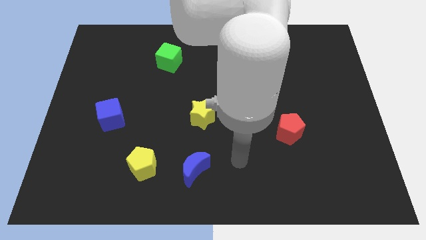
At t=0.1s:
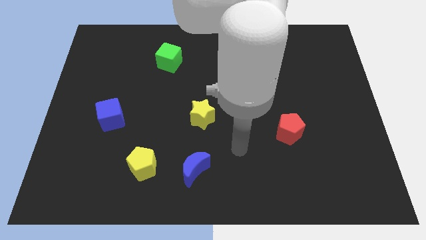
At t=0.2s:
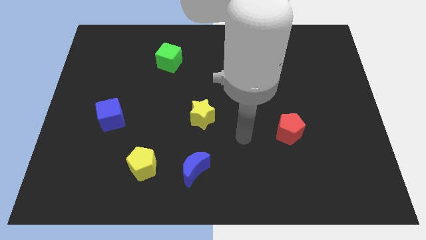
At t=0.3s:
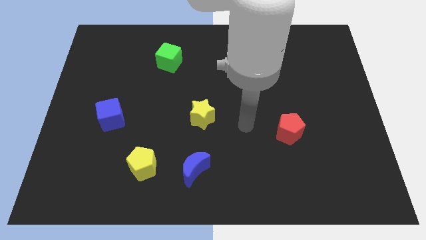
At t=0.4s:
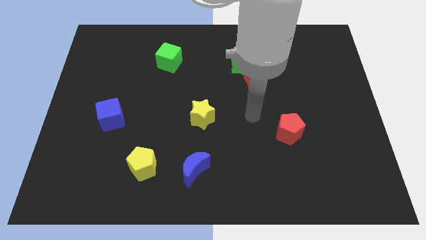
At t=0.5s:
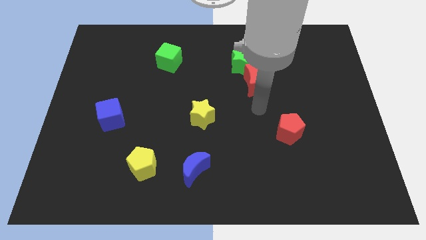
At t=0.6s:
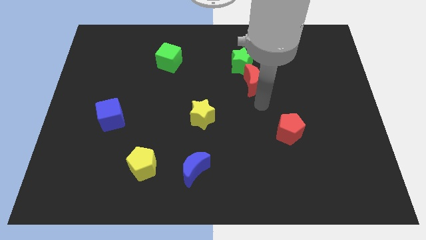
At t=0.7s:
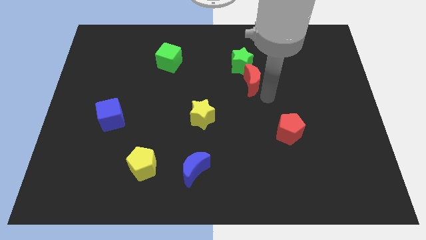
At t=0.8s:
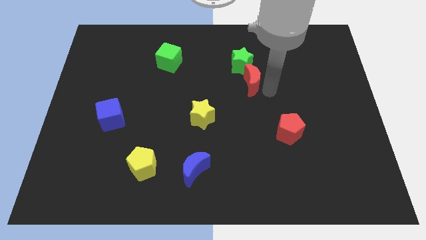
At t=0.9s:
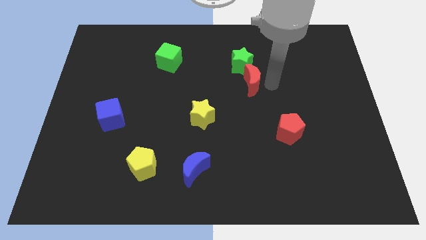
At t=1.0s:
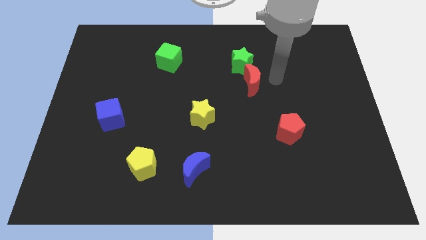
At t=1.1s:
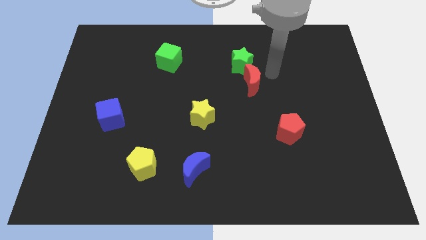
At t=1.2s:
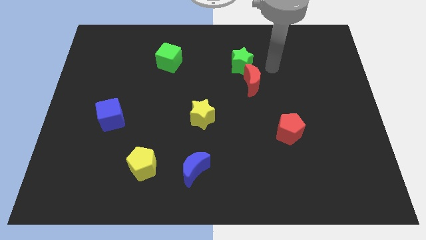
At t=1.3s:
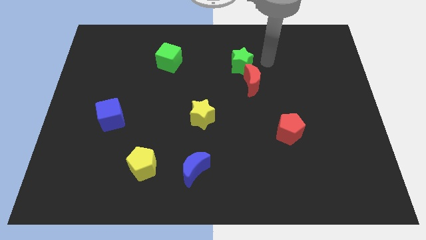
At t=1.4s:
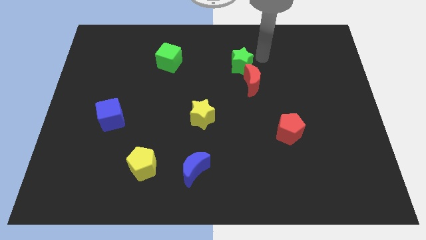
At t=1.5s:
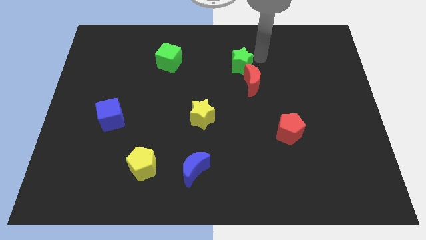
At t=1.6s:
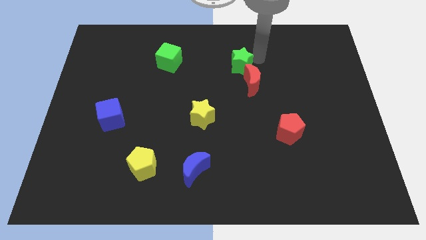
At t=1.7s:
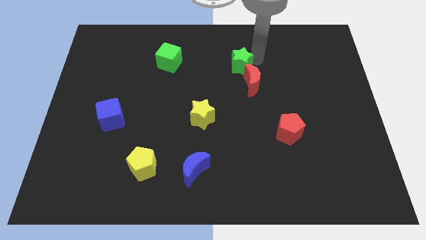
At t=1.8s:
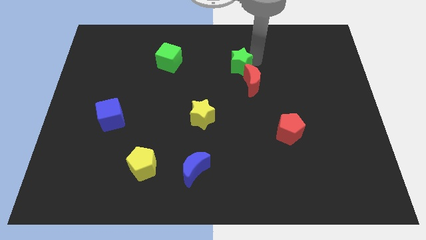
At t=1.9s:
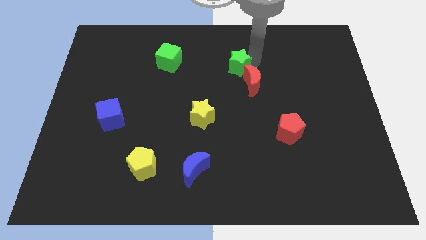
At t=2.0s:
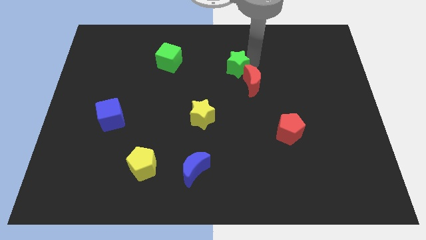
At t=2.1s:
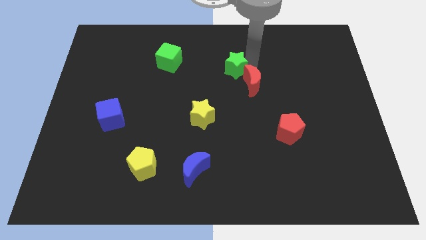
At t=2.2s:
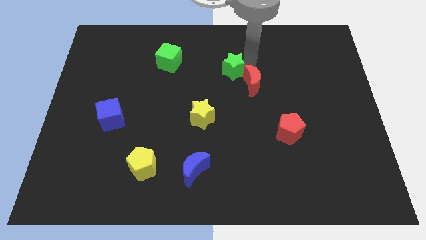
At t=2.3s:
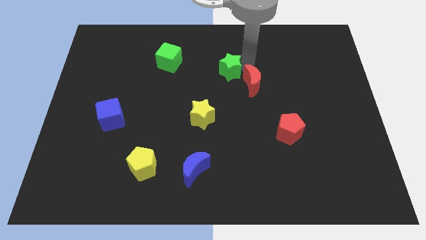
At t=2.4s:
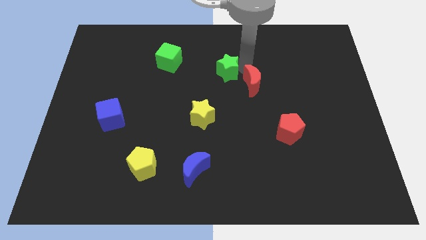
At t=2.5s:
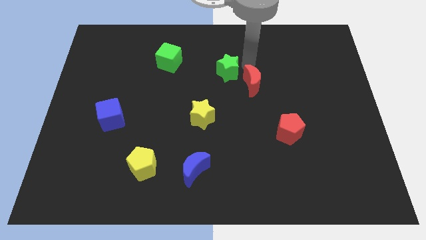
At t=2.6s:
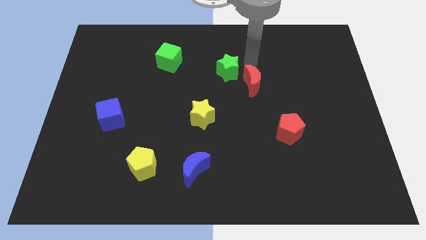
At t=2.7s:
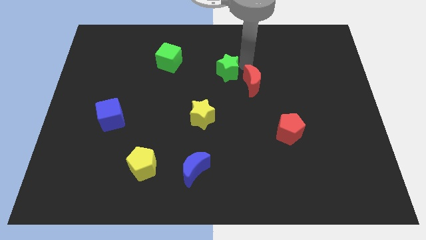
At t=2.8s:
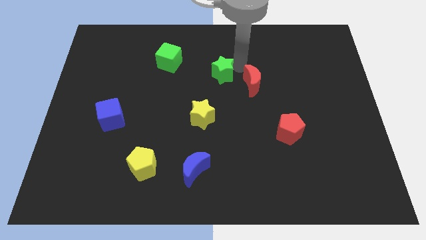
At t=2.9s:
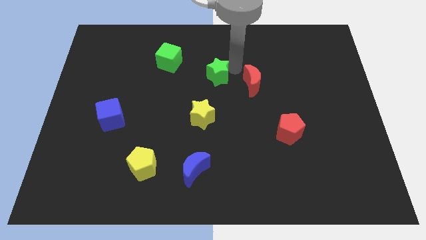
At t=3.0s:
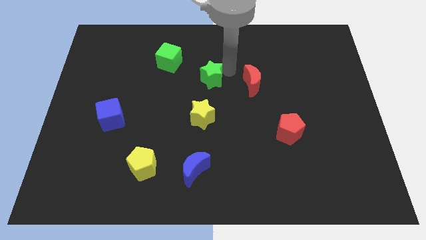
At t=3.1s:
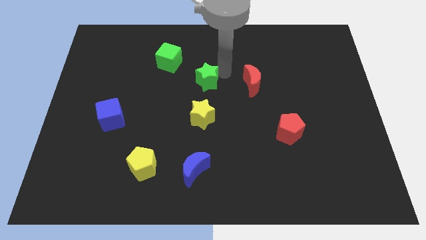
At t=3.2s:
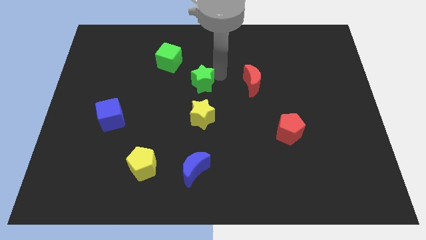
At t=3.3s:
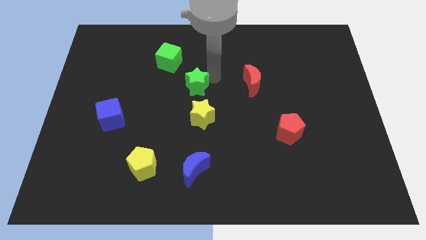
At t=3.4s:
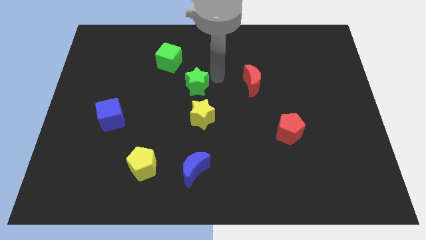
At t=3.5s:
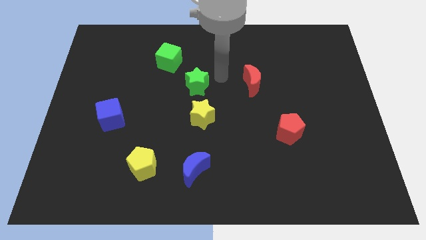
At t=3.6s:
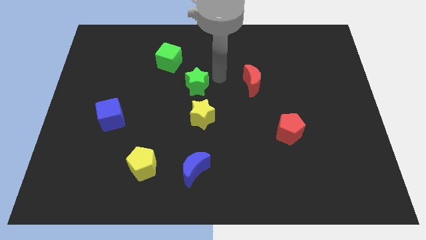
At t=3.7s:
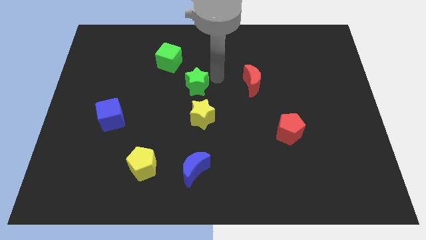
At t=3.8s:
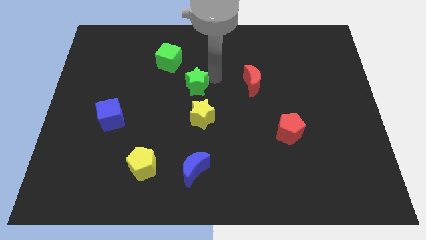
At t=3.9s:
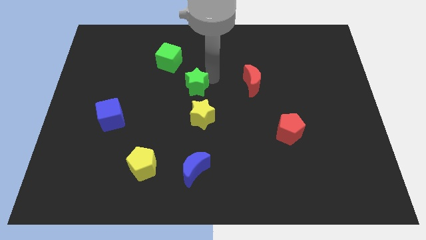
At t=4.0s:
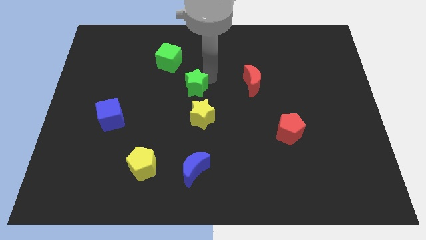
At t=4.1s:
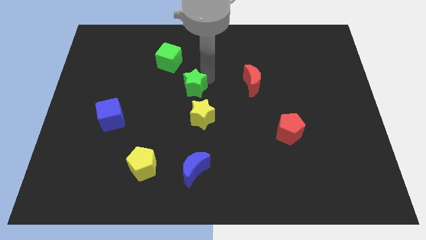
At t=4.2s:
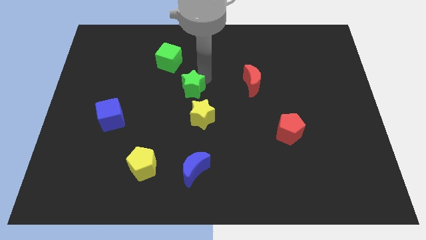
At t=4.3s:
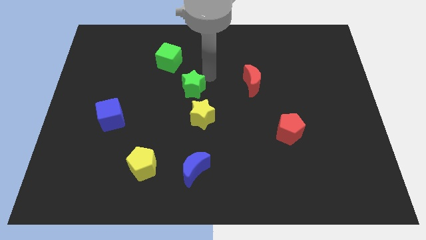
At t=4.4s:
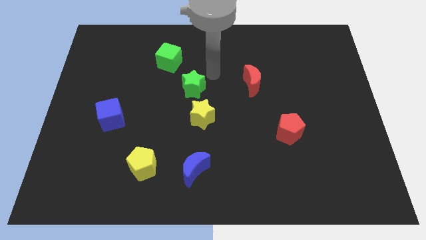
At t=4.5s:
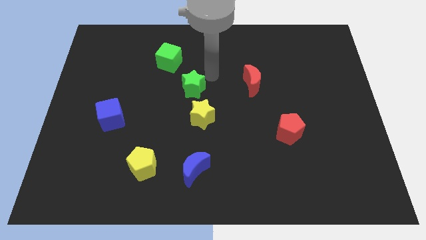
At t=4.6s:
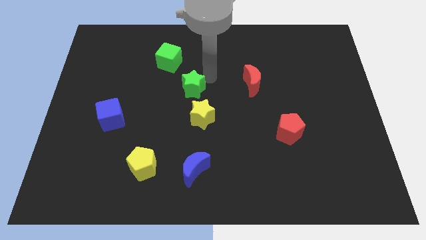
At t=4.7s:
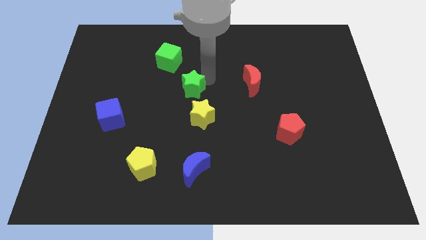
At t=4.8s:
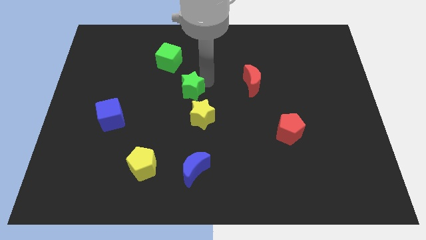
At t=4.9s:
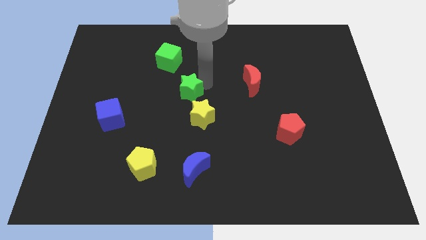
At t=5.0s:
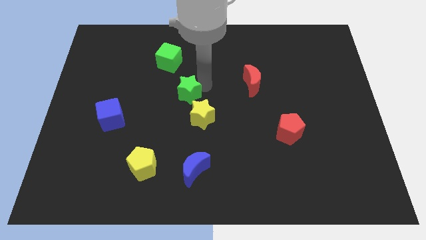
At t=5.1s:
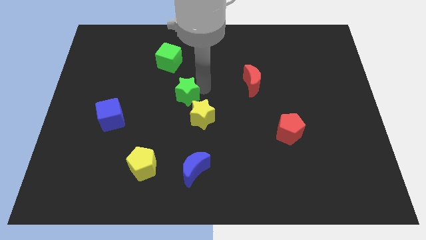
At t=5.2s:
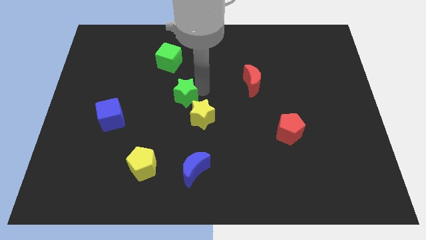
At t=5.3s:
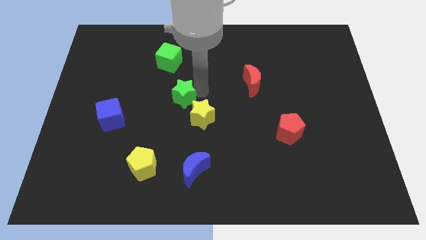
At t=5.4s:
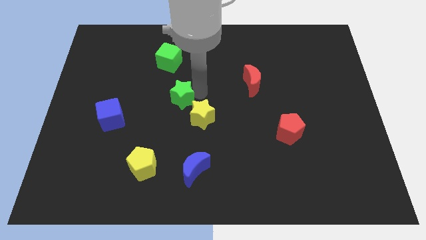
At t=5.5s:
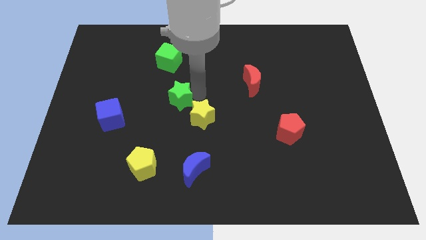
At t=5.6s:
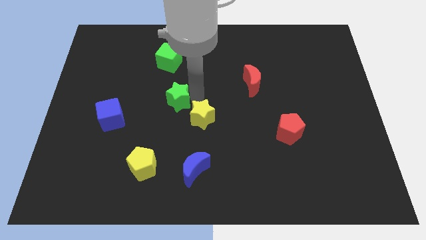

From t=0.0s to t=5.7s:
push the green star to the left side of the yellow star

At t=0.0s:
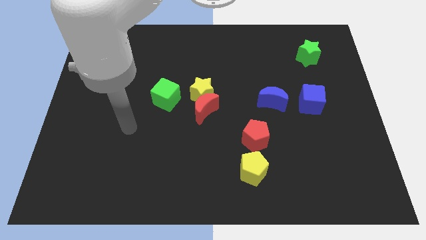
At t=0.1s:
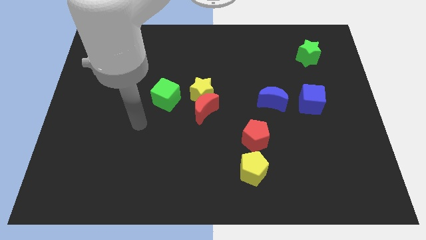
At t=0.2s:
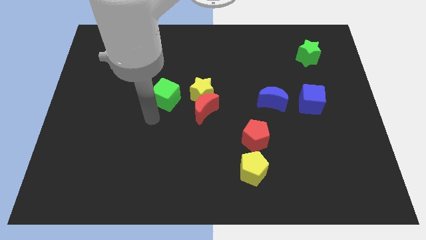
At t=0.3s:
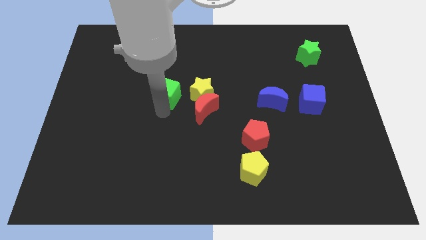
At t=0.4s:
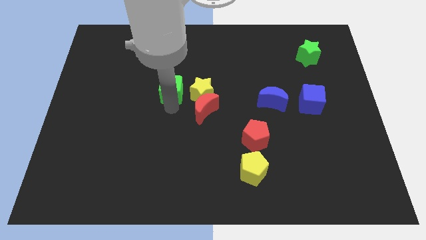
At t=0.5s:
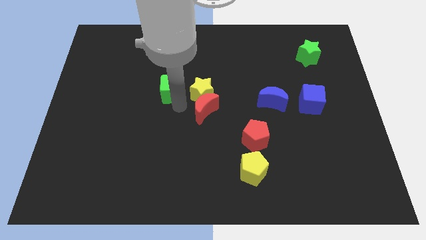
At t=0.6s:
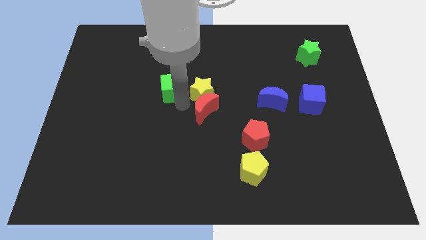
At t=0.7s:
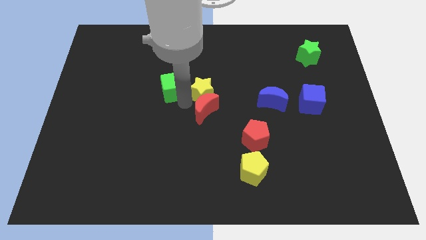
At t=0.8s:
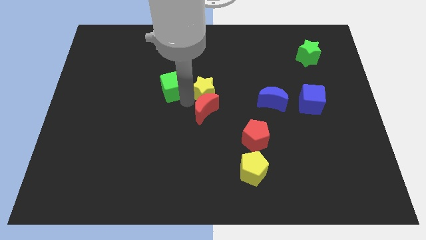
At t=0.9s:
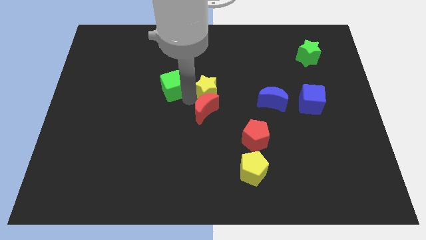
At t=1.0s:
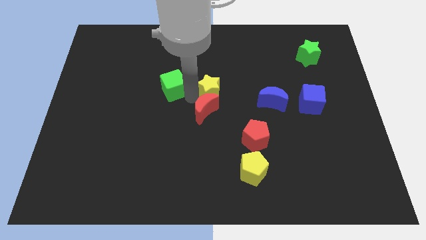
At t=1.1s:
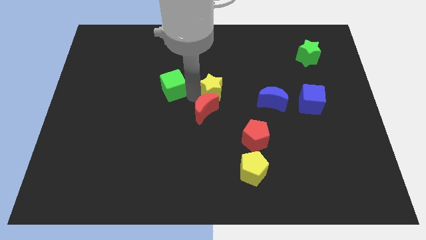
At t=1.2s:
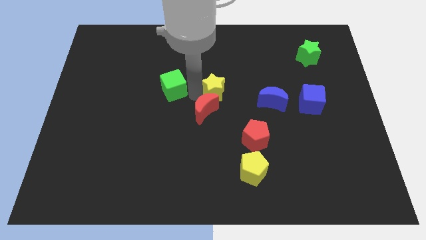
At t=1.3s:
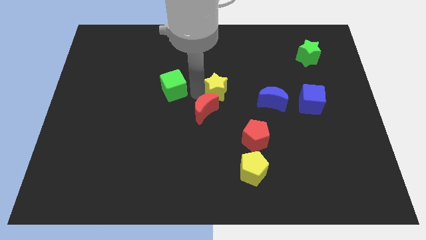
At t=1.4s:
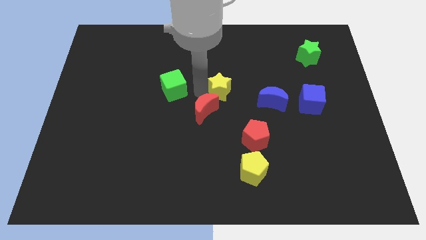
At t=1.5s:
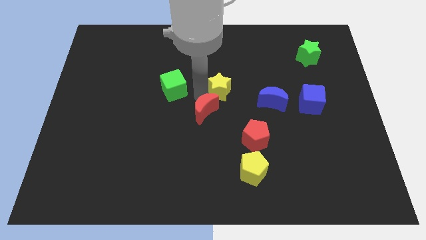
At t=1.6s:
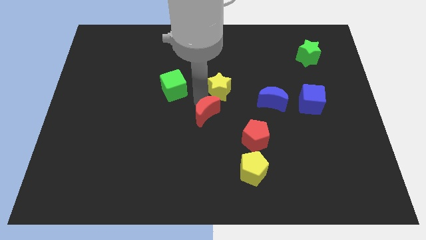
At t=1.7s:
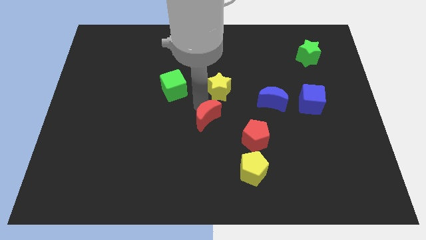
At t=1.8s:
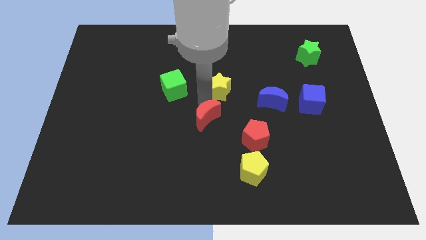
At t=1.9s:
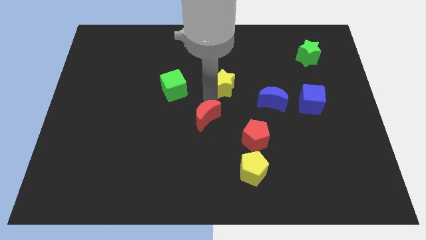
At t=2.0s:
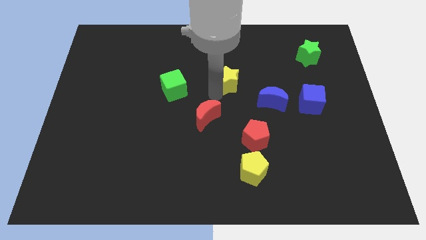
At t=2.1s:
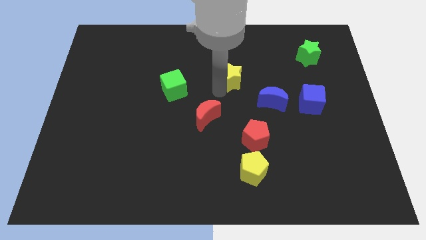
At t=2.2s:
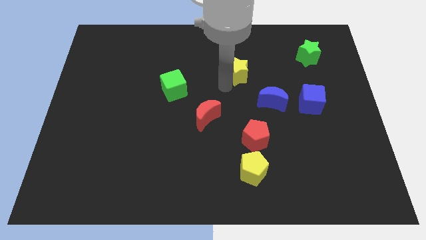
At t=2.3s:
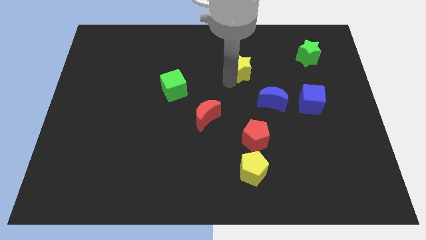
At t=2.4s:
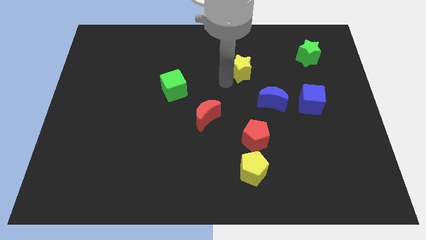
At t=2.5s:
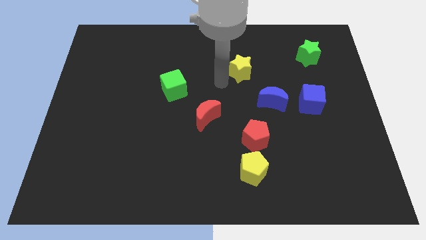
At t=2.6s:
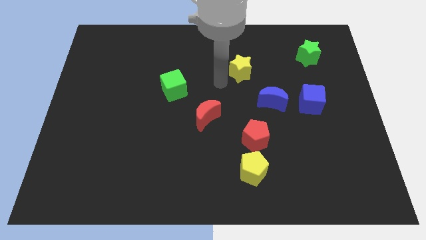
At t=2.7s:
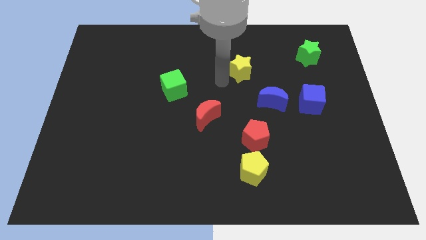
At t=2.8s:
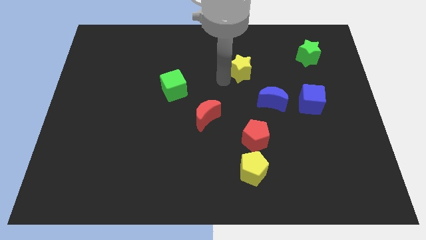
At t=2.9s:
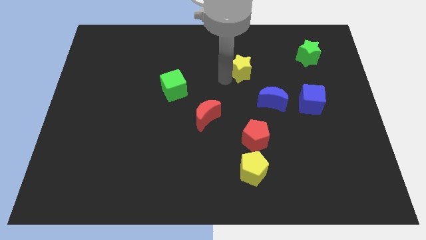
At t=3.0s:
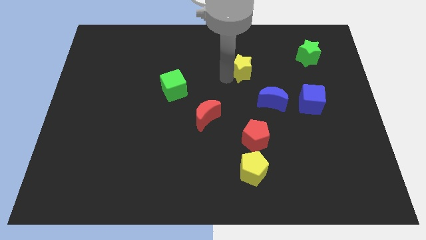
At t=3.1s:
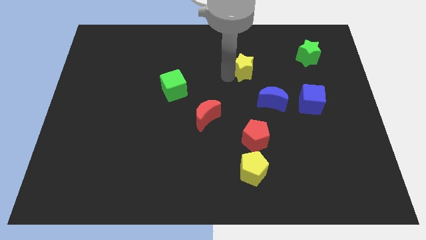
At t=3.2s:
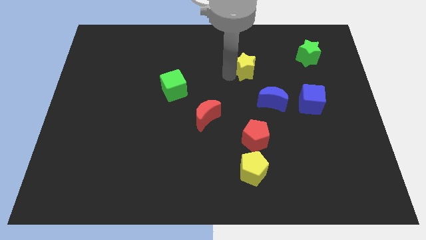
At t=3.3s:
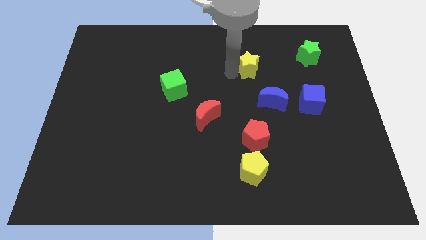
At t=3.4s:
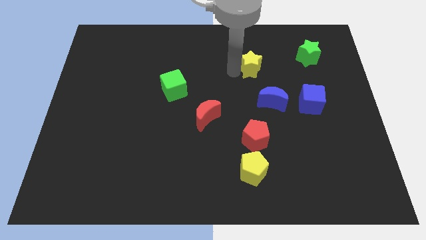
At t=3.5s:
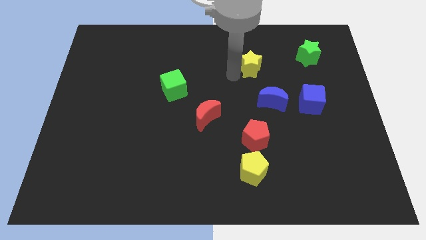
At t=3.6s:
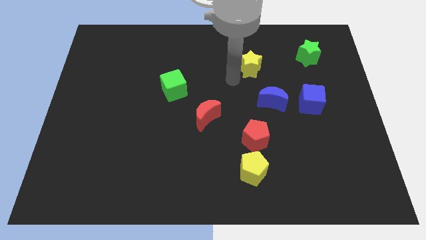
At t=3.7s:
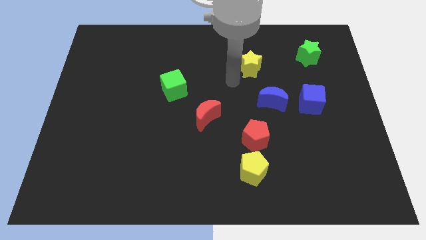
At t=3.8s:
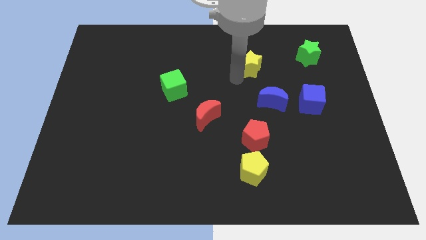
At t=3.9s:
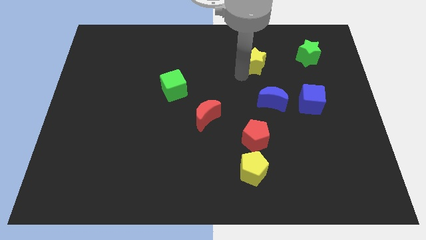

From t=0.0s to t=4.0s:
push the yellow star just left of the green star
